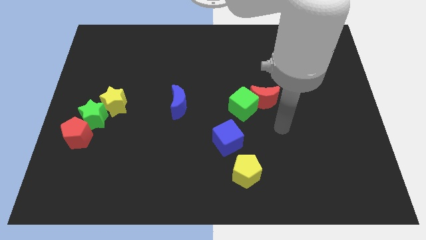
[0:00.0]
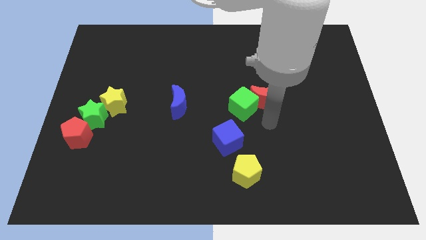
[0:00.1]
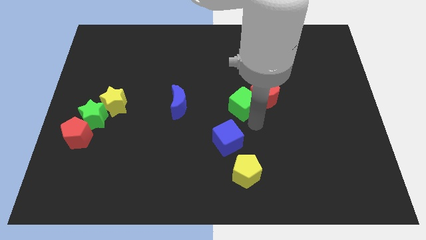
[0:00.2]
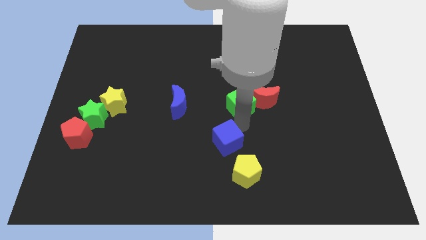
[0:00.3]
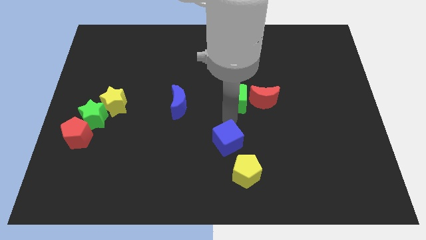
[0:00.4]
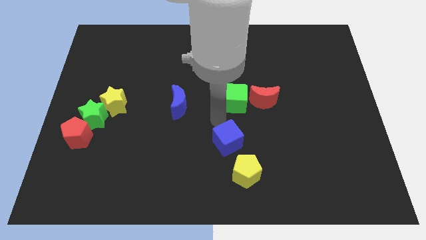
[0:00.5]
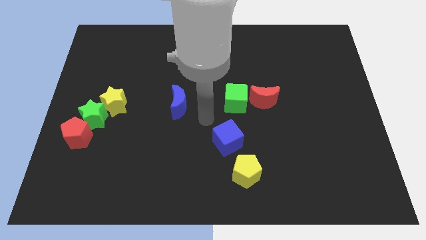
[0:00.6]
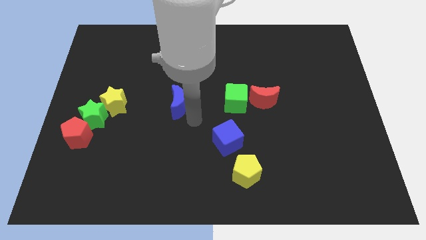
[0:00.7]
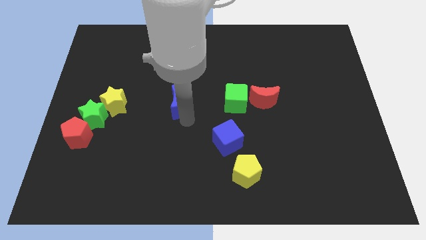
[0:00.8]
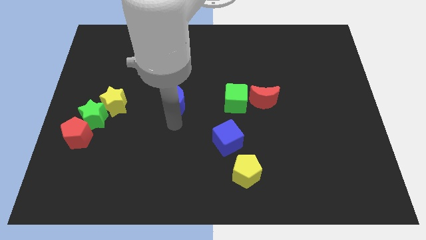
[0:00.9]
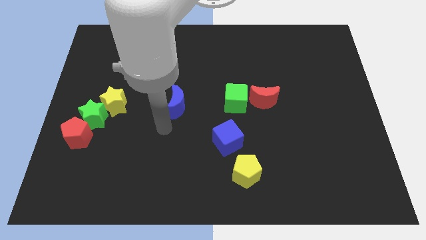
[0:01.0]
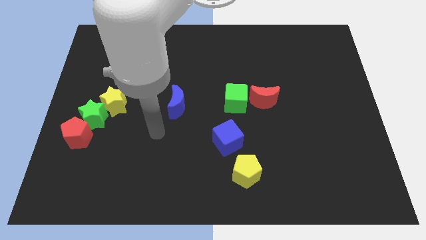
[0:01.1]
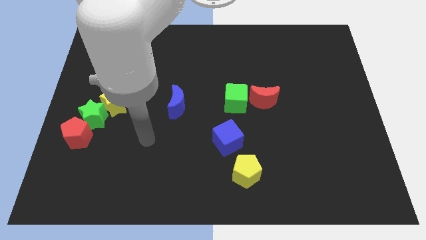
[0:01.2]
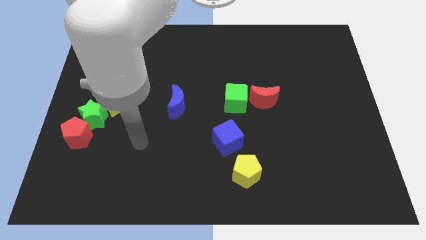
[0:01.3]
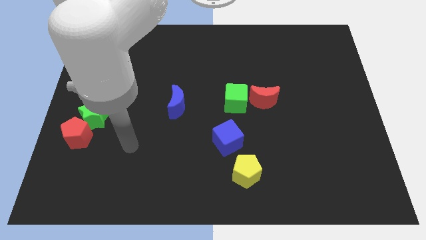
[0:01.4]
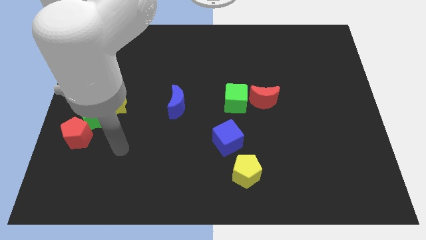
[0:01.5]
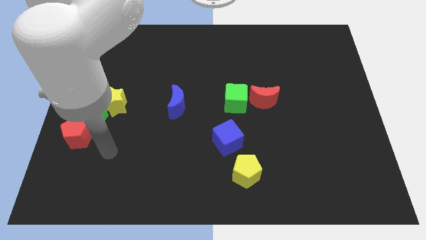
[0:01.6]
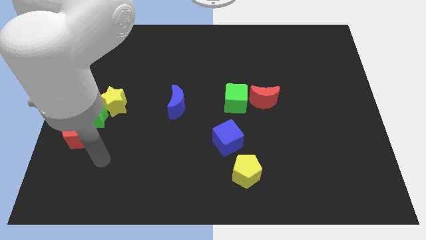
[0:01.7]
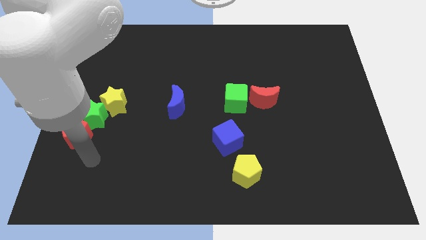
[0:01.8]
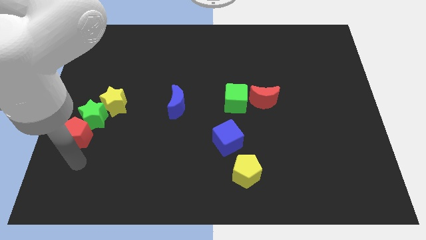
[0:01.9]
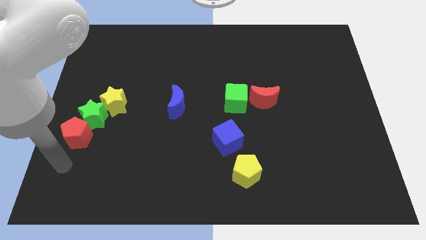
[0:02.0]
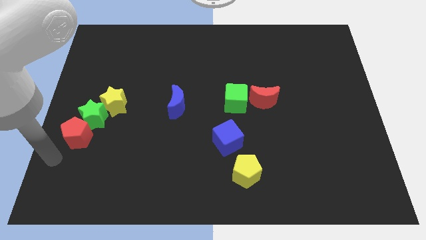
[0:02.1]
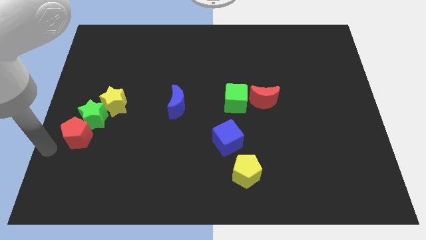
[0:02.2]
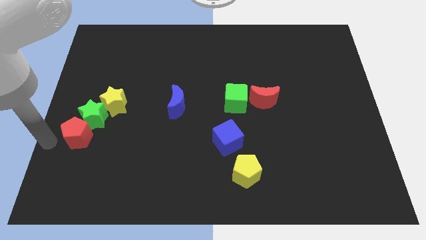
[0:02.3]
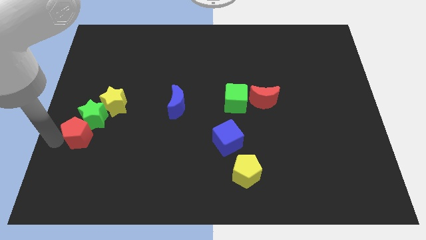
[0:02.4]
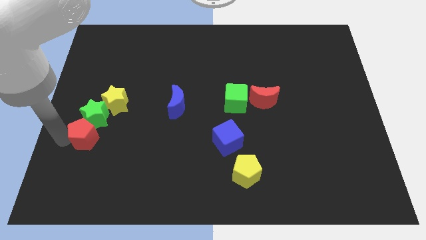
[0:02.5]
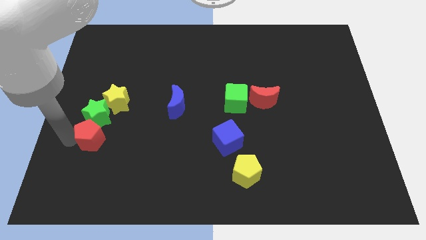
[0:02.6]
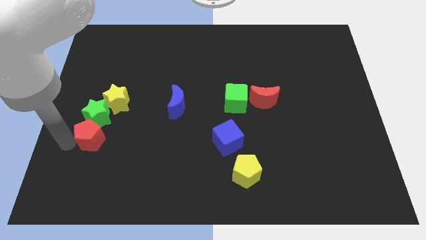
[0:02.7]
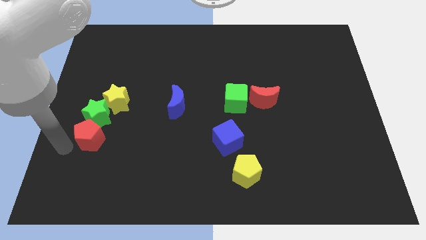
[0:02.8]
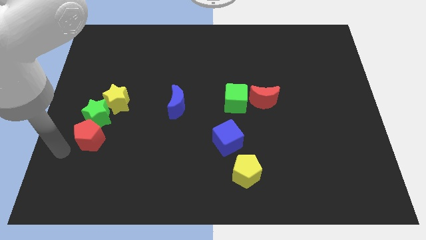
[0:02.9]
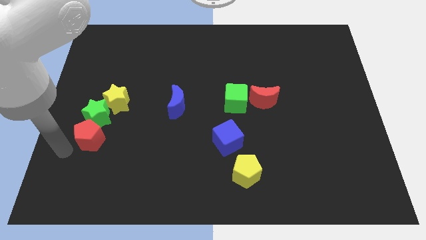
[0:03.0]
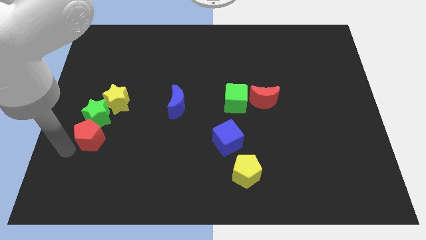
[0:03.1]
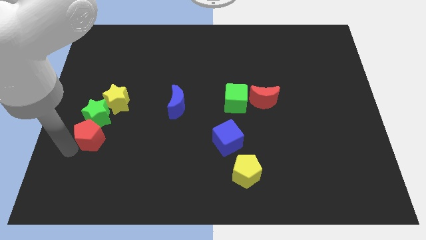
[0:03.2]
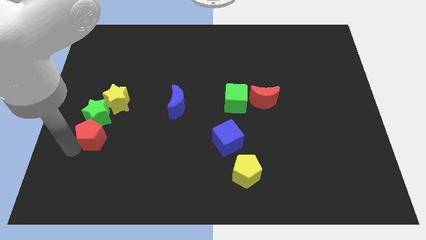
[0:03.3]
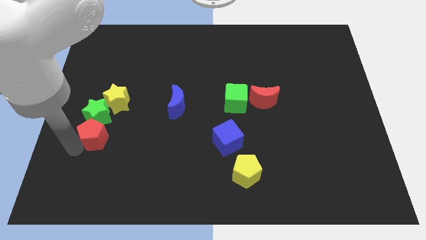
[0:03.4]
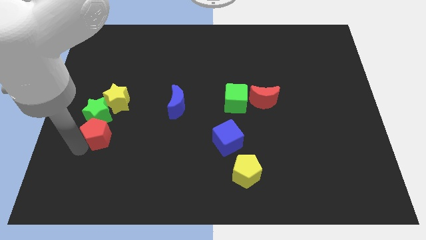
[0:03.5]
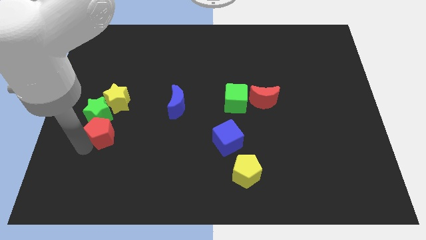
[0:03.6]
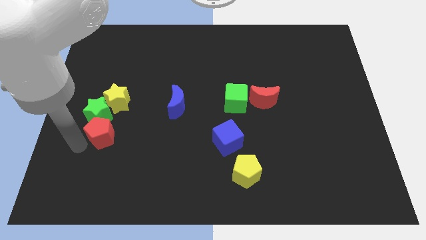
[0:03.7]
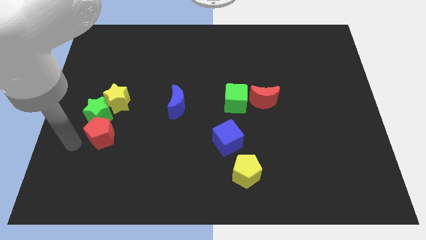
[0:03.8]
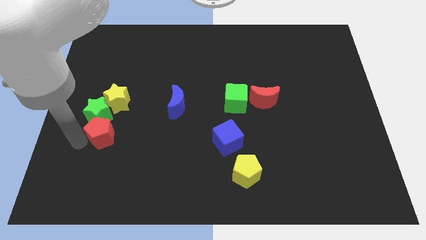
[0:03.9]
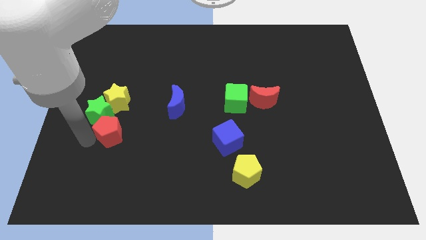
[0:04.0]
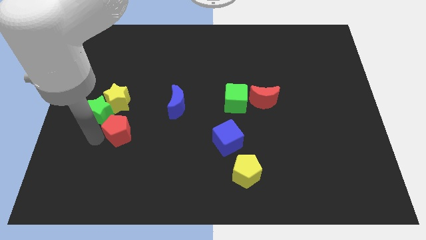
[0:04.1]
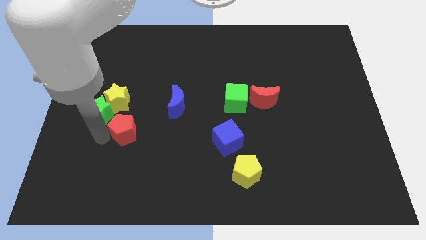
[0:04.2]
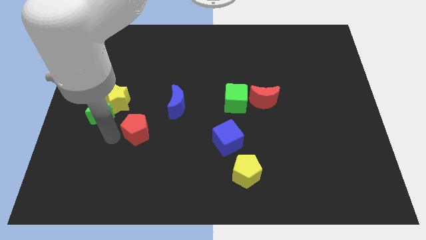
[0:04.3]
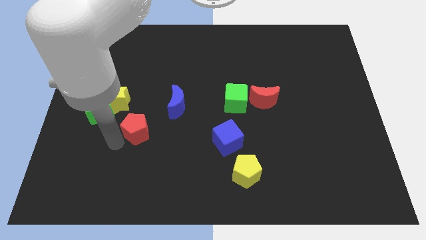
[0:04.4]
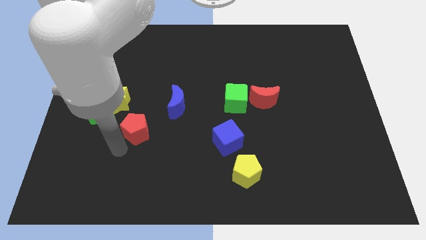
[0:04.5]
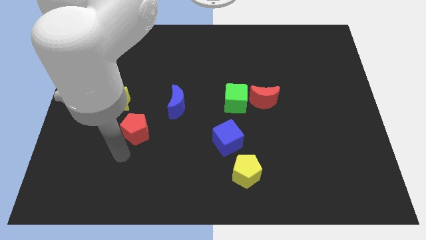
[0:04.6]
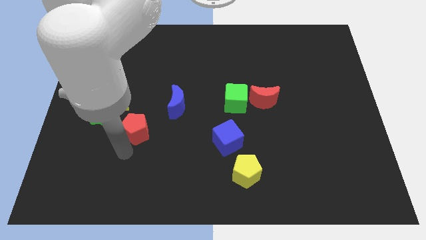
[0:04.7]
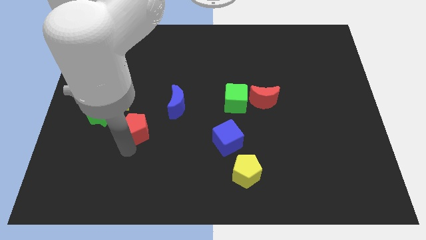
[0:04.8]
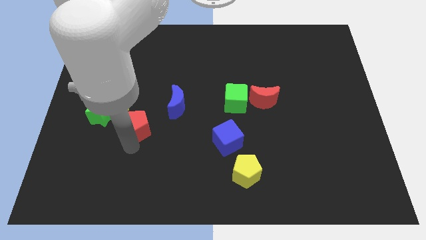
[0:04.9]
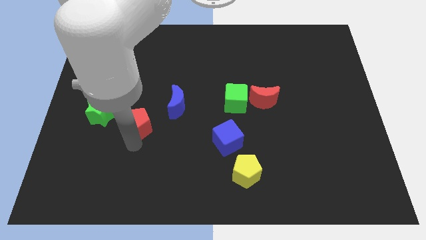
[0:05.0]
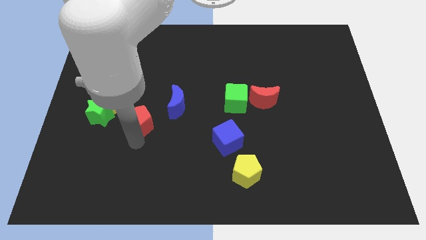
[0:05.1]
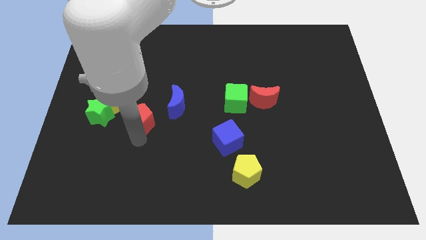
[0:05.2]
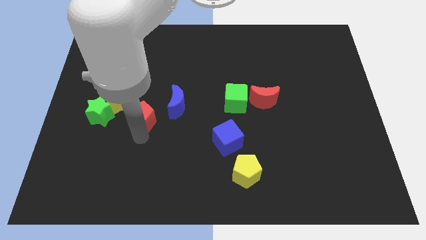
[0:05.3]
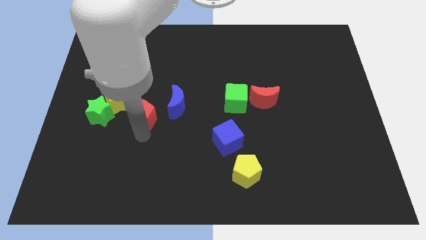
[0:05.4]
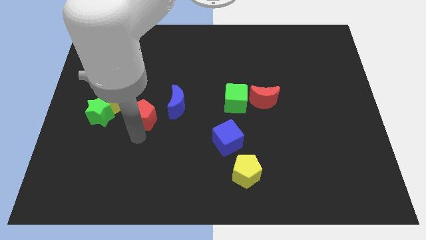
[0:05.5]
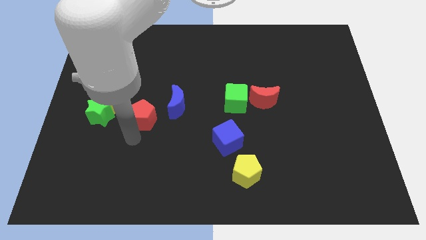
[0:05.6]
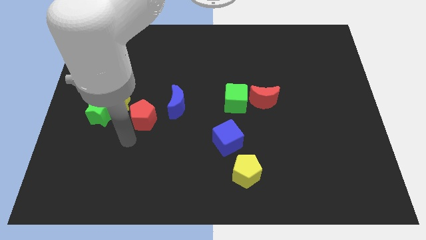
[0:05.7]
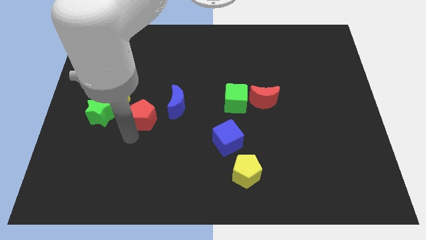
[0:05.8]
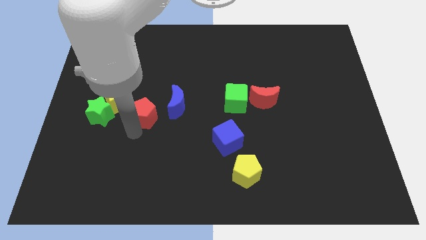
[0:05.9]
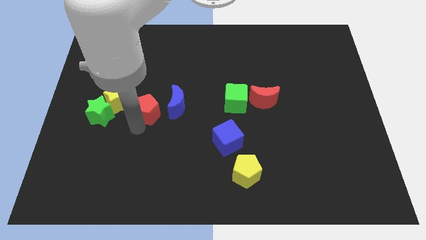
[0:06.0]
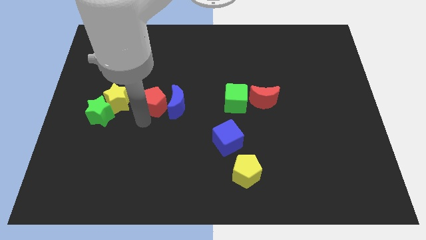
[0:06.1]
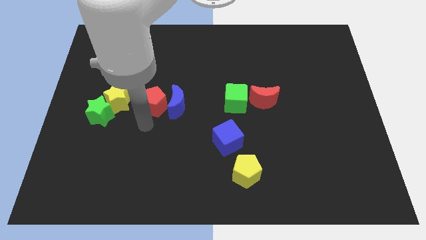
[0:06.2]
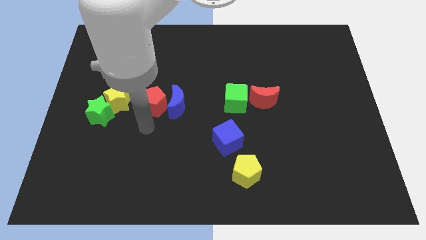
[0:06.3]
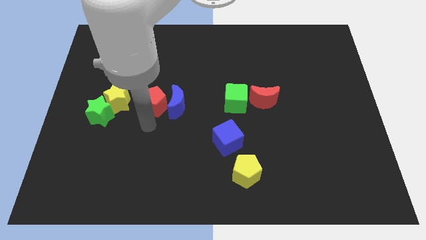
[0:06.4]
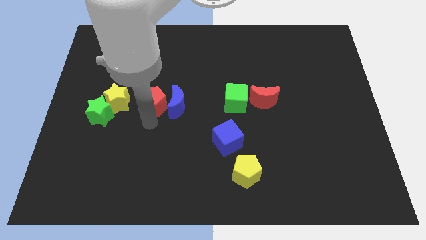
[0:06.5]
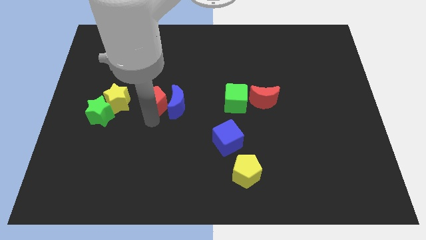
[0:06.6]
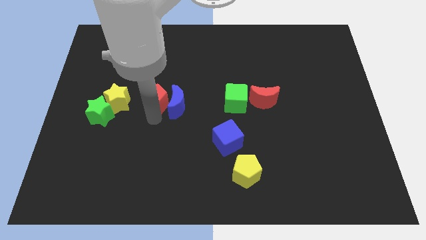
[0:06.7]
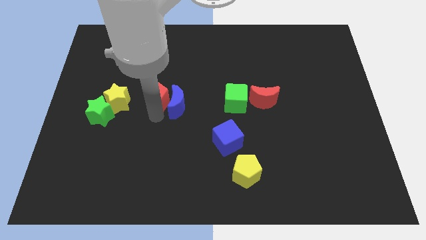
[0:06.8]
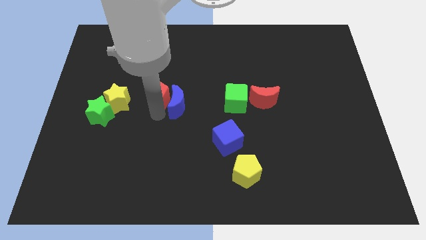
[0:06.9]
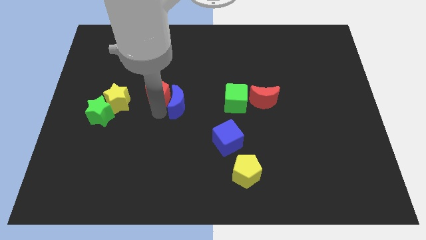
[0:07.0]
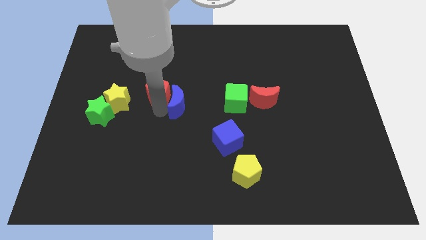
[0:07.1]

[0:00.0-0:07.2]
move the red pentagon upwards and then to the right

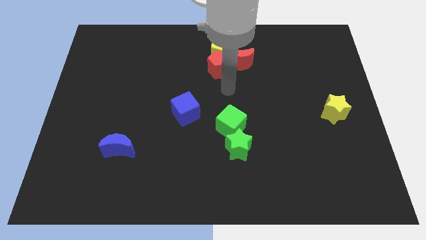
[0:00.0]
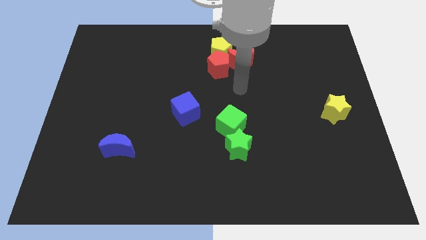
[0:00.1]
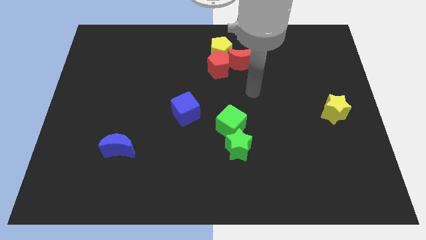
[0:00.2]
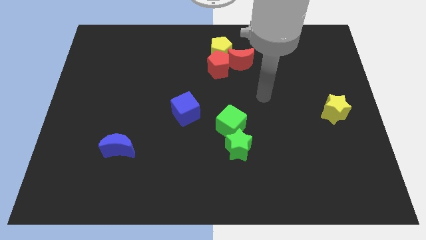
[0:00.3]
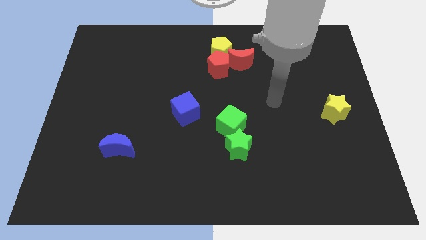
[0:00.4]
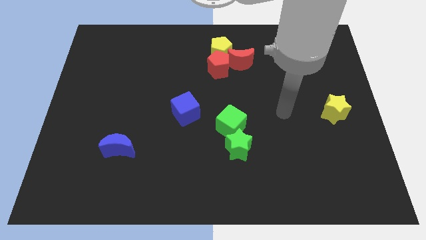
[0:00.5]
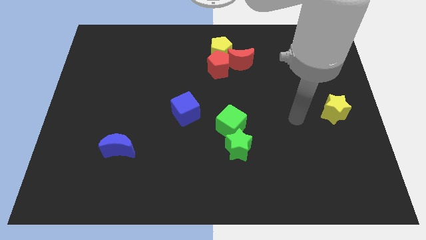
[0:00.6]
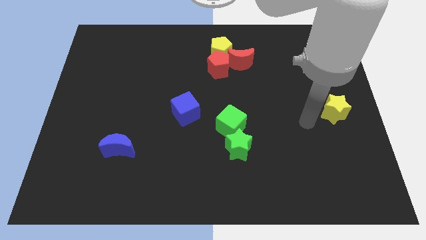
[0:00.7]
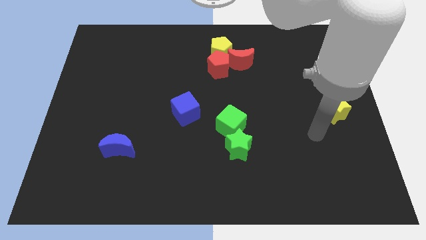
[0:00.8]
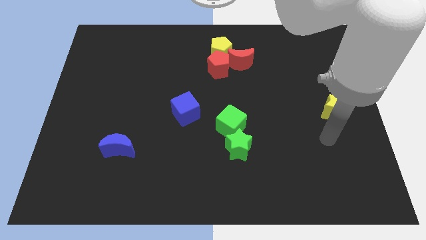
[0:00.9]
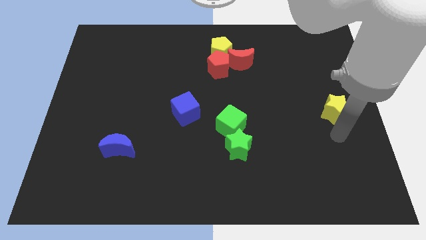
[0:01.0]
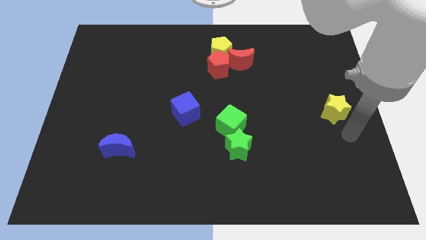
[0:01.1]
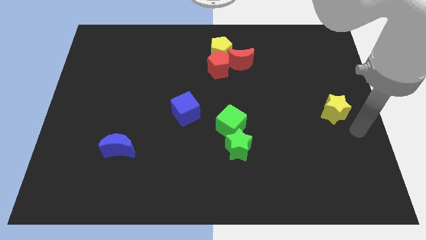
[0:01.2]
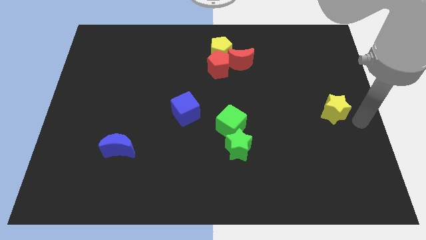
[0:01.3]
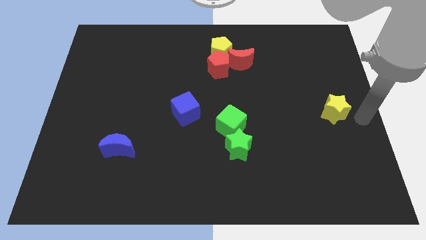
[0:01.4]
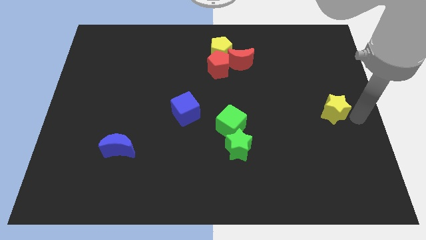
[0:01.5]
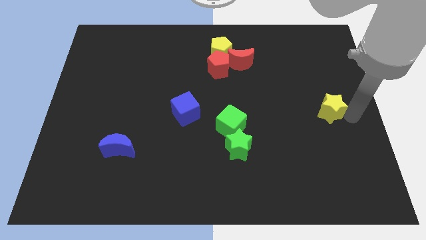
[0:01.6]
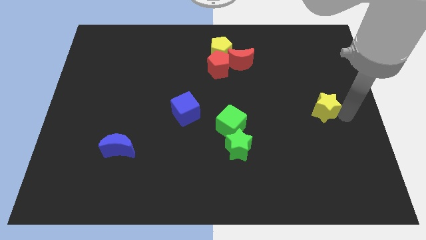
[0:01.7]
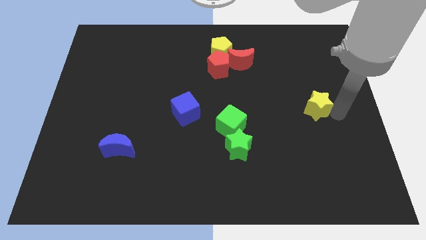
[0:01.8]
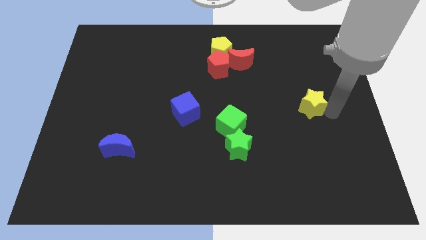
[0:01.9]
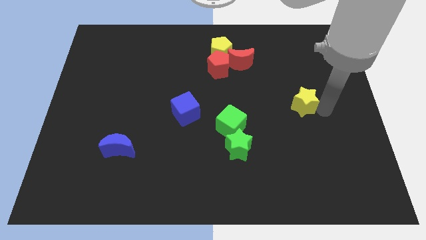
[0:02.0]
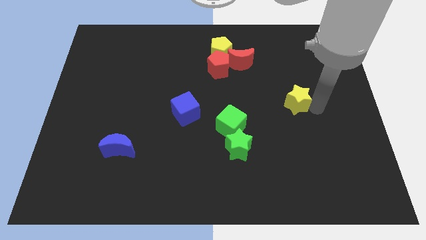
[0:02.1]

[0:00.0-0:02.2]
slightly move the yellow star left
